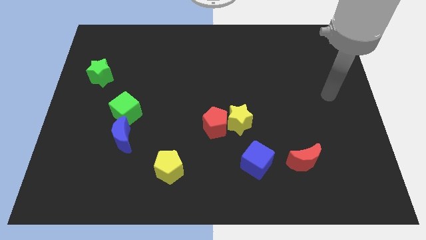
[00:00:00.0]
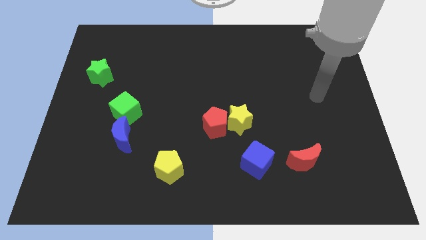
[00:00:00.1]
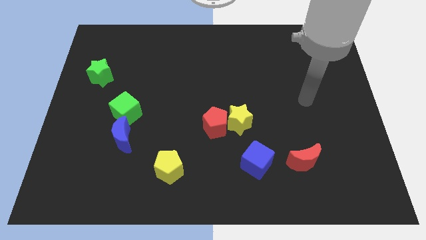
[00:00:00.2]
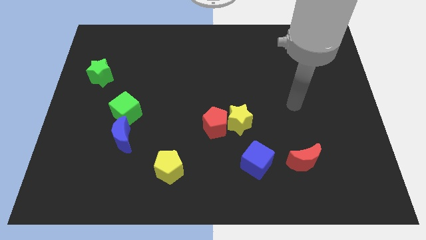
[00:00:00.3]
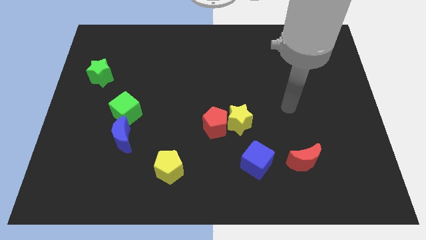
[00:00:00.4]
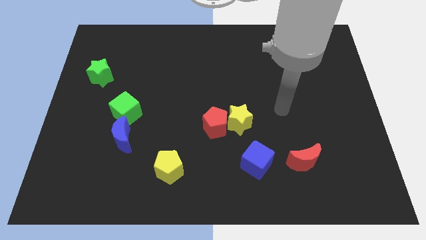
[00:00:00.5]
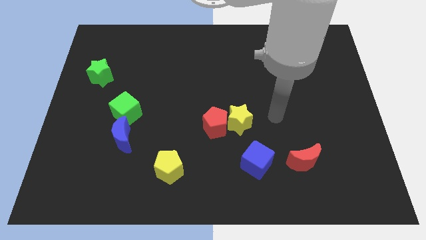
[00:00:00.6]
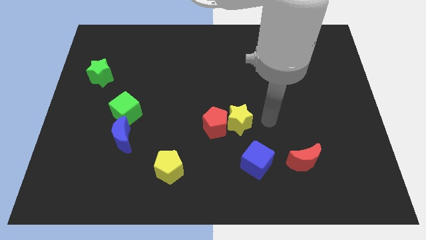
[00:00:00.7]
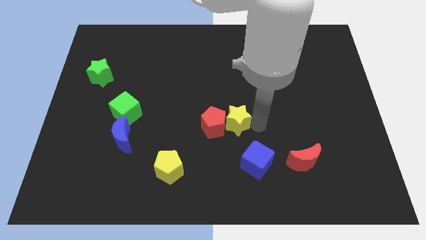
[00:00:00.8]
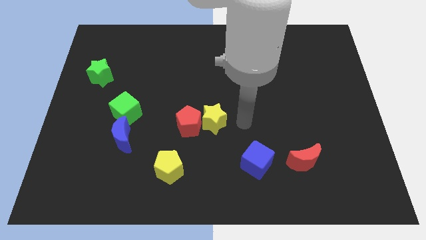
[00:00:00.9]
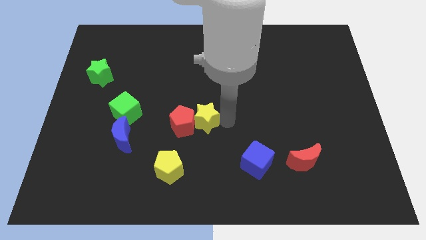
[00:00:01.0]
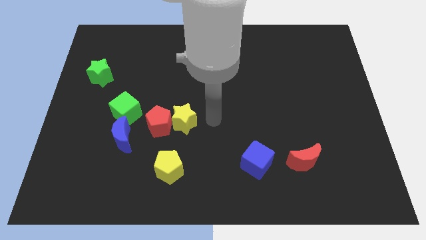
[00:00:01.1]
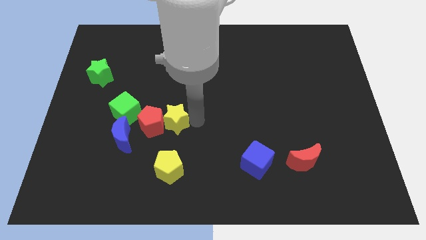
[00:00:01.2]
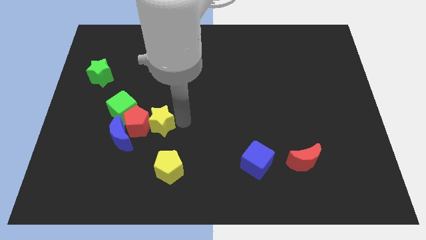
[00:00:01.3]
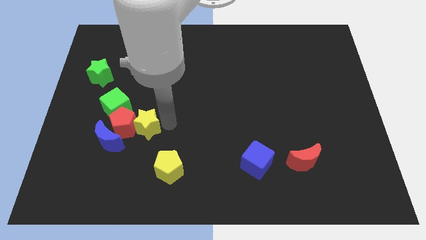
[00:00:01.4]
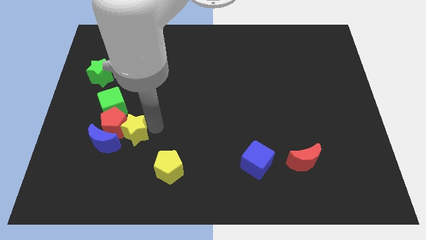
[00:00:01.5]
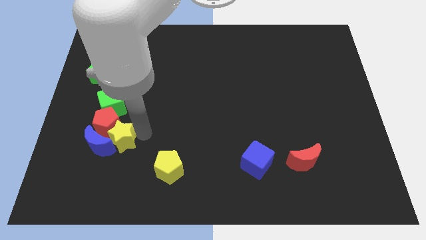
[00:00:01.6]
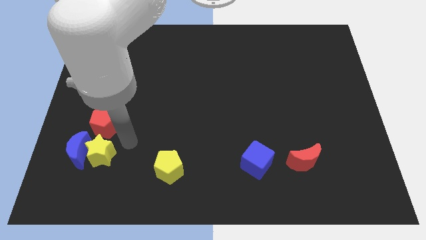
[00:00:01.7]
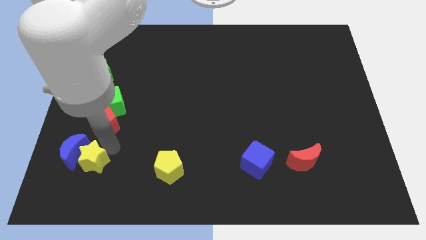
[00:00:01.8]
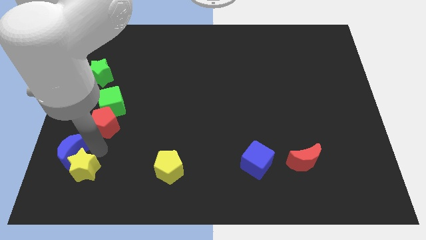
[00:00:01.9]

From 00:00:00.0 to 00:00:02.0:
move the red pentagon away from the yellow star

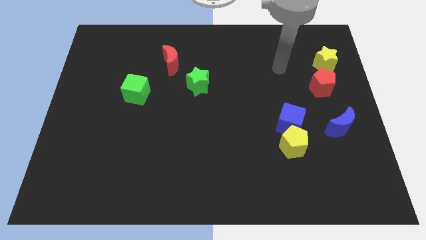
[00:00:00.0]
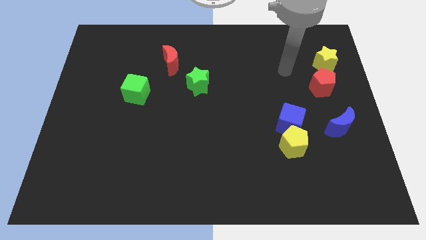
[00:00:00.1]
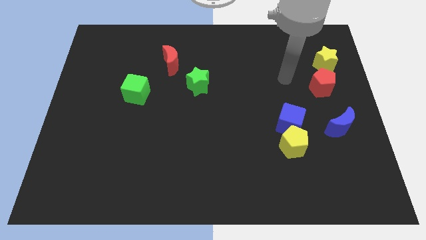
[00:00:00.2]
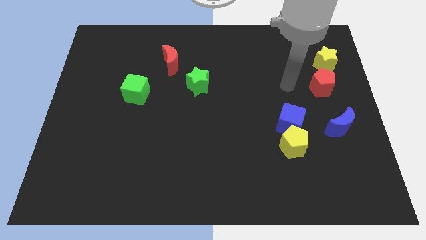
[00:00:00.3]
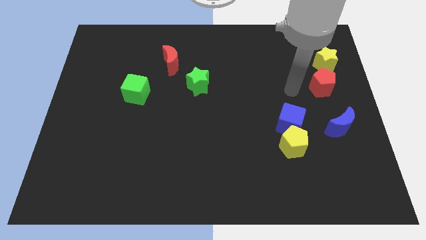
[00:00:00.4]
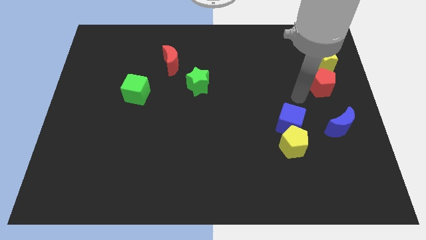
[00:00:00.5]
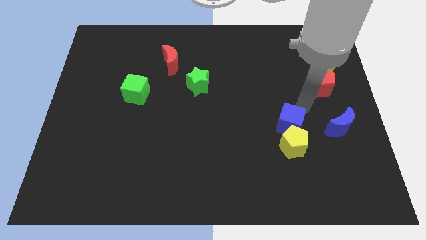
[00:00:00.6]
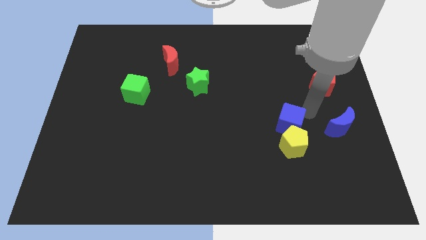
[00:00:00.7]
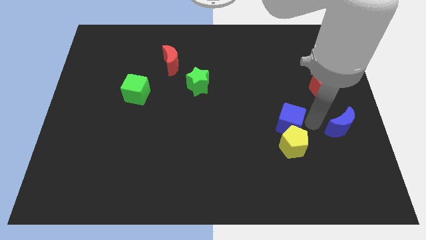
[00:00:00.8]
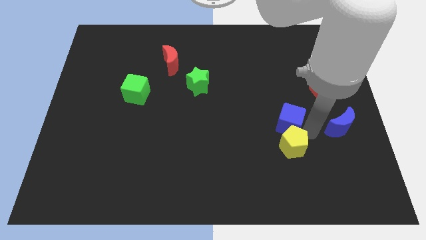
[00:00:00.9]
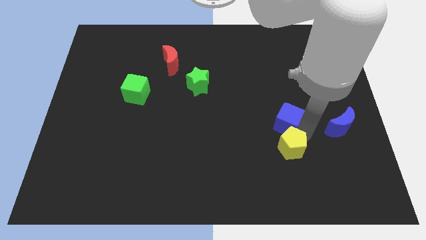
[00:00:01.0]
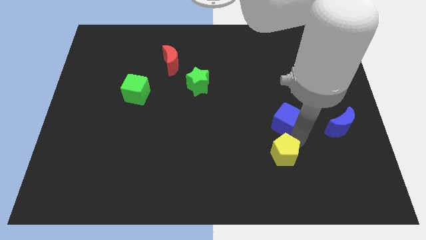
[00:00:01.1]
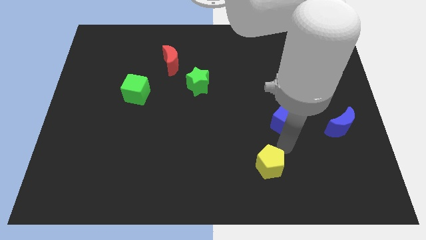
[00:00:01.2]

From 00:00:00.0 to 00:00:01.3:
separate the blue cube from the yellow pentagon

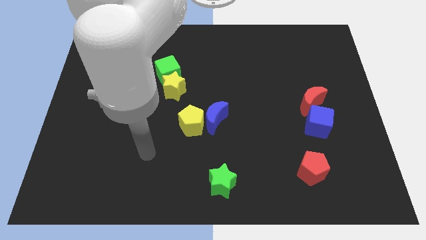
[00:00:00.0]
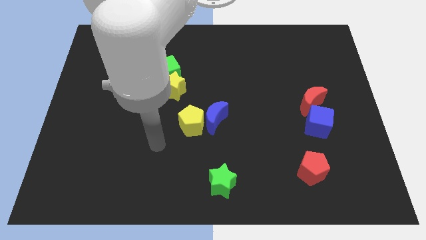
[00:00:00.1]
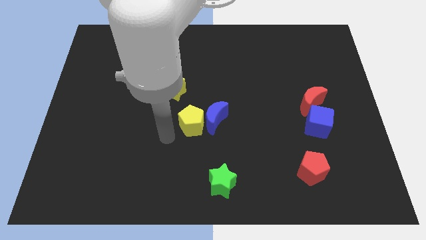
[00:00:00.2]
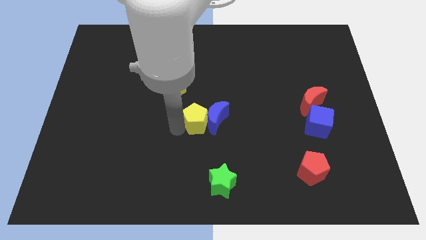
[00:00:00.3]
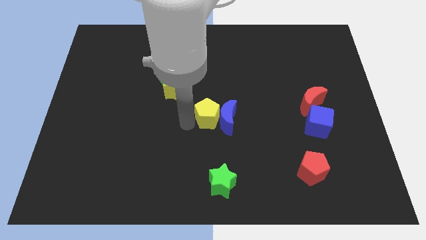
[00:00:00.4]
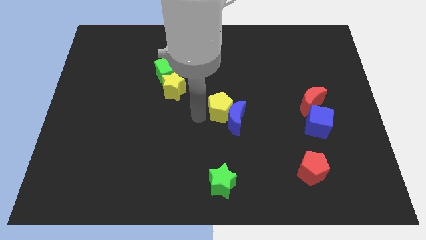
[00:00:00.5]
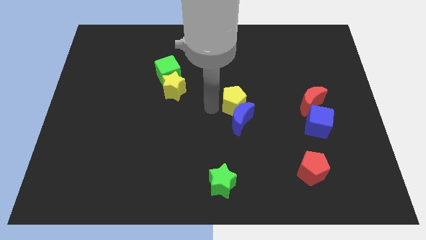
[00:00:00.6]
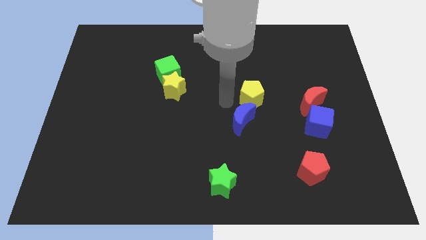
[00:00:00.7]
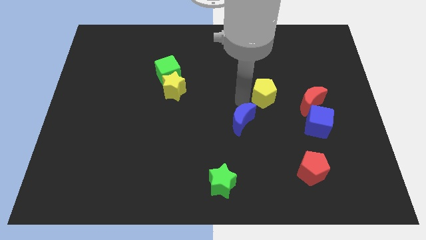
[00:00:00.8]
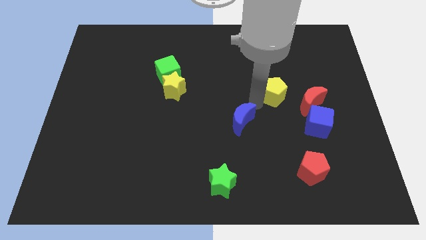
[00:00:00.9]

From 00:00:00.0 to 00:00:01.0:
move the blue moon away from the yellow pentagon

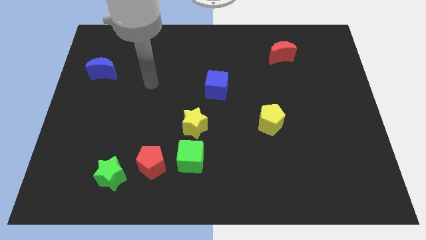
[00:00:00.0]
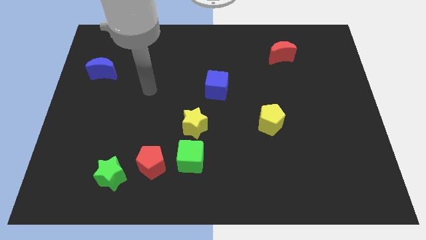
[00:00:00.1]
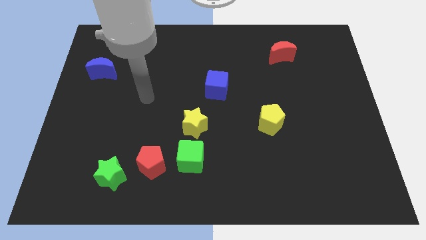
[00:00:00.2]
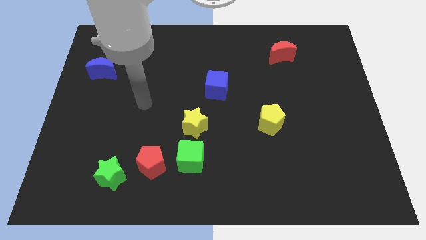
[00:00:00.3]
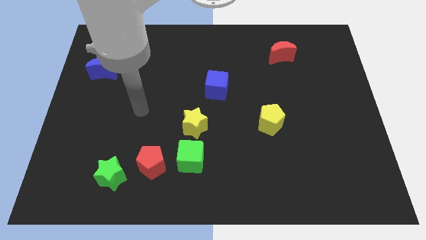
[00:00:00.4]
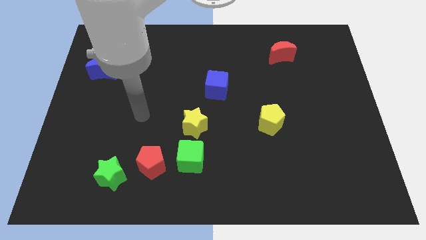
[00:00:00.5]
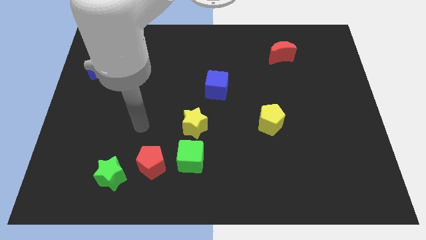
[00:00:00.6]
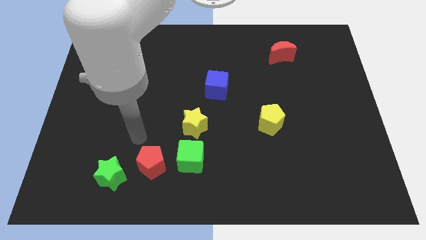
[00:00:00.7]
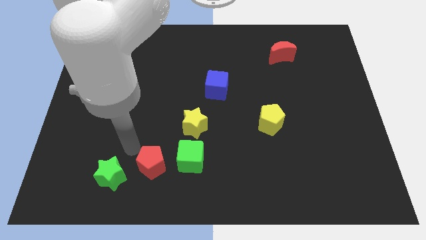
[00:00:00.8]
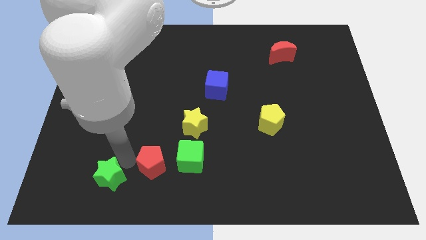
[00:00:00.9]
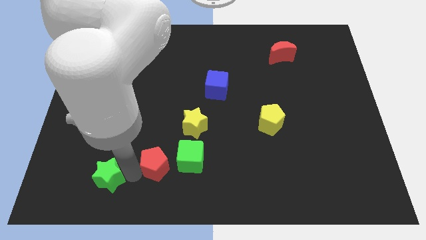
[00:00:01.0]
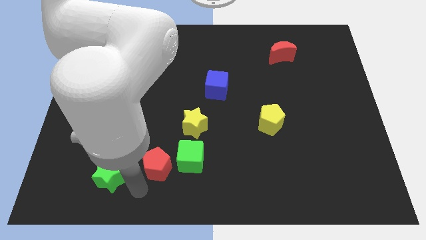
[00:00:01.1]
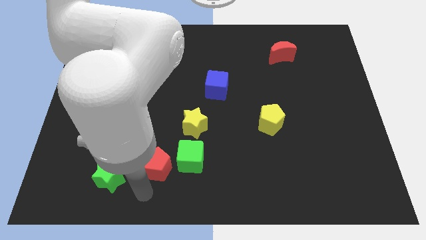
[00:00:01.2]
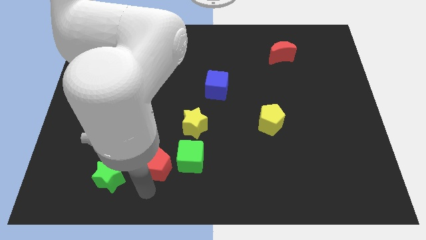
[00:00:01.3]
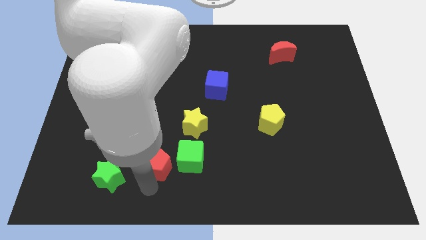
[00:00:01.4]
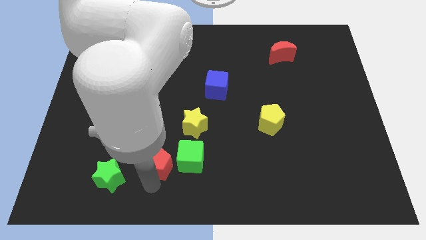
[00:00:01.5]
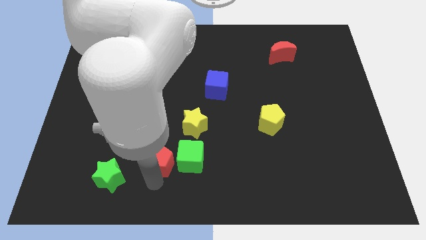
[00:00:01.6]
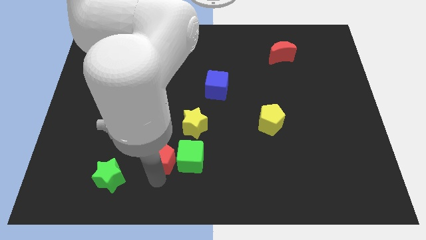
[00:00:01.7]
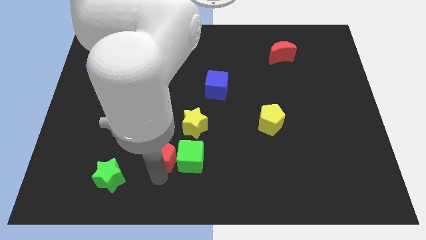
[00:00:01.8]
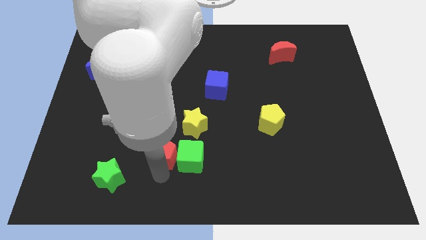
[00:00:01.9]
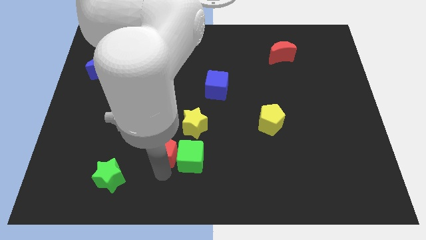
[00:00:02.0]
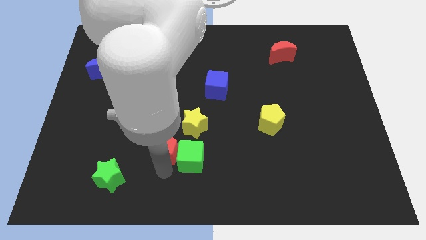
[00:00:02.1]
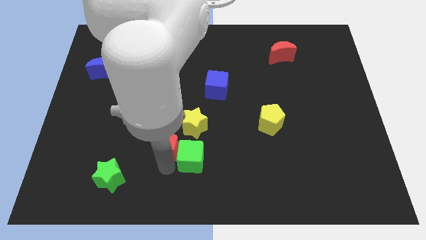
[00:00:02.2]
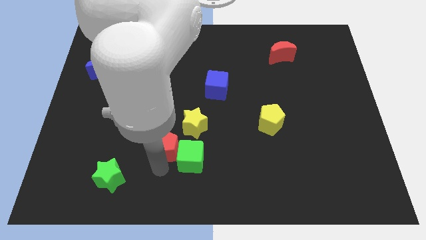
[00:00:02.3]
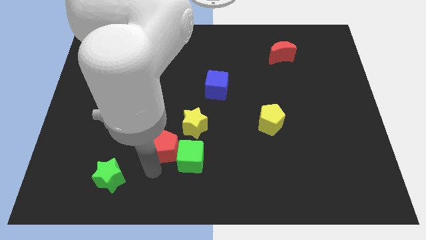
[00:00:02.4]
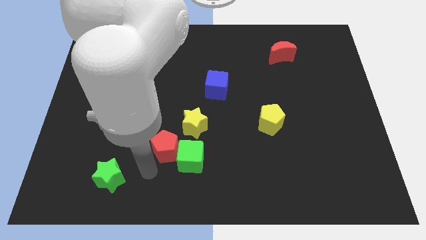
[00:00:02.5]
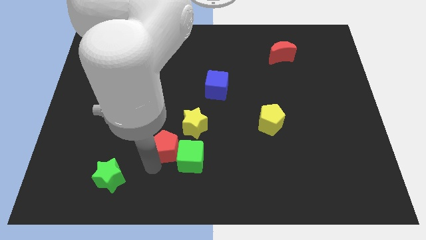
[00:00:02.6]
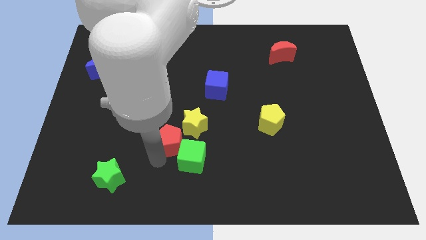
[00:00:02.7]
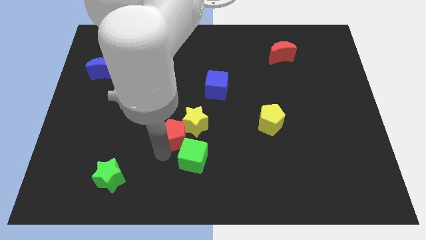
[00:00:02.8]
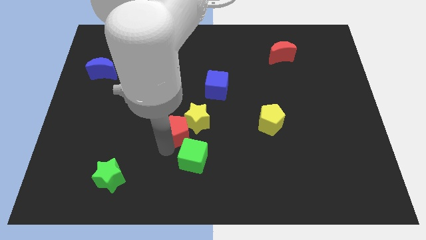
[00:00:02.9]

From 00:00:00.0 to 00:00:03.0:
move the red pentagon away from the green cube and green star

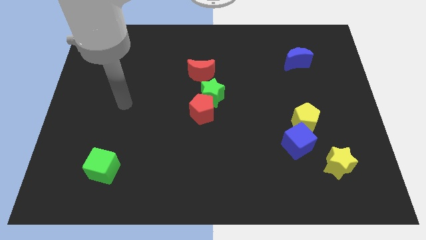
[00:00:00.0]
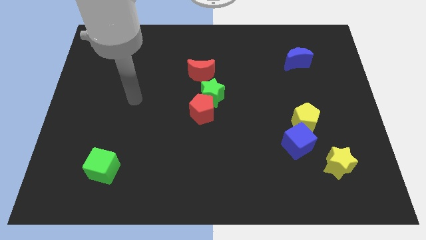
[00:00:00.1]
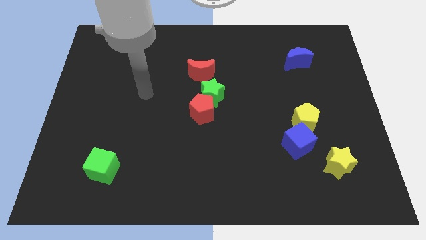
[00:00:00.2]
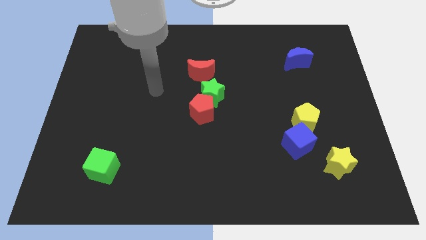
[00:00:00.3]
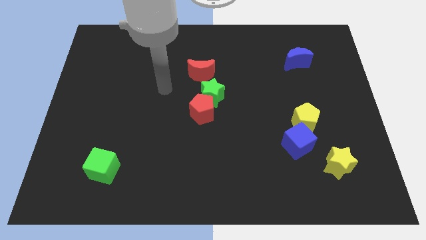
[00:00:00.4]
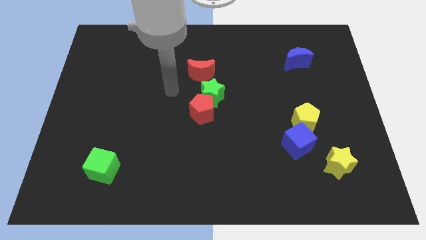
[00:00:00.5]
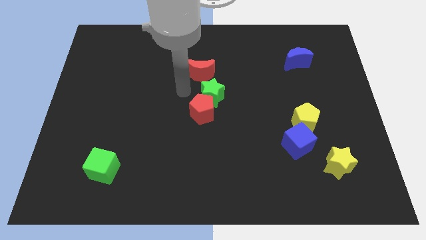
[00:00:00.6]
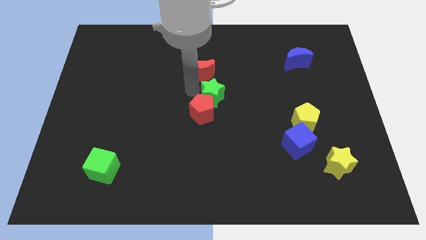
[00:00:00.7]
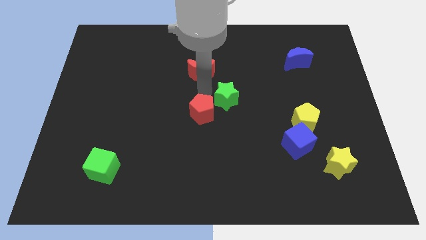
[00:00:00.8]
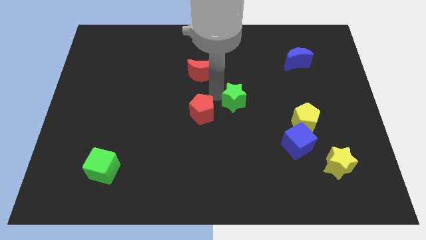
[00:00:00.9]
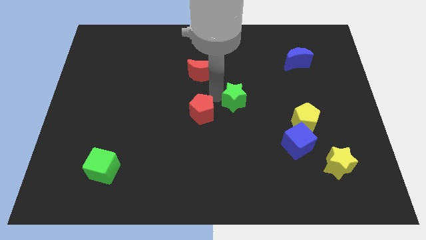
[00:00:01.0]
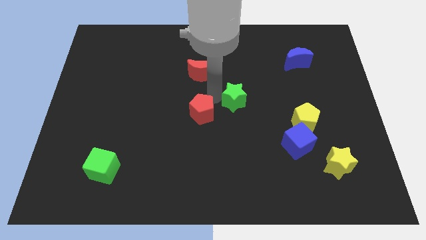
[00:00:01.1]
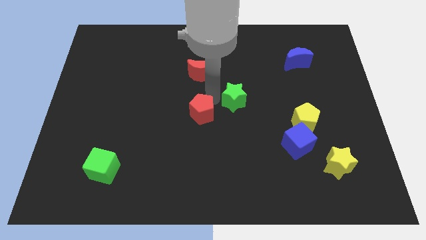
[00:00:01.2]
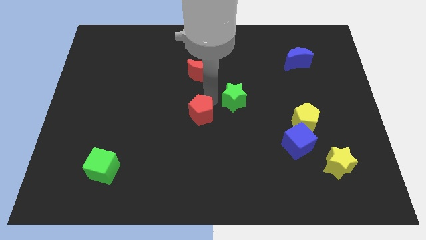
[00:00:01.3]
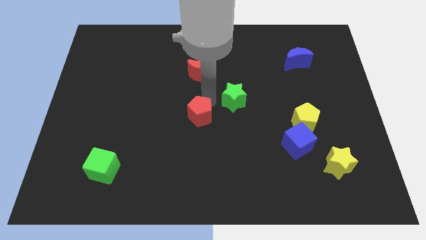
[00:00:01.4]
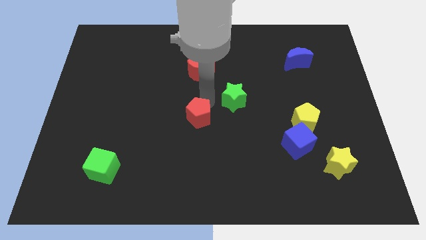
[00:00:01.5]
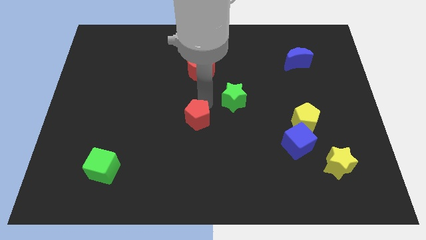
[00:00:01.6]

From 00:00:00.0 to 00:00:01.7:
move the red pentagon away from the green star

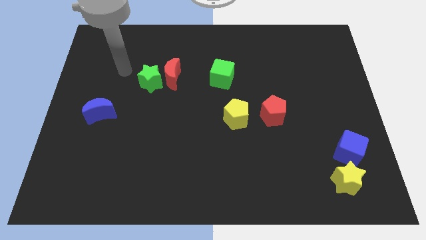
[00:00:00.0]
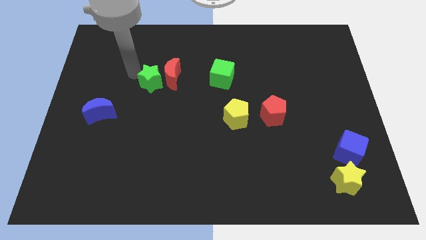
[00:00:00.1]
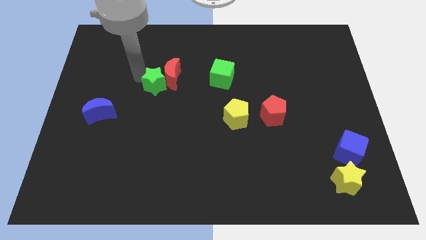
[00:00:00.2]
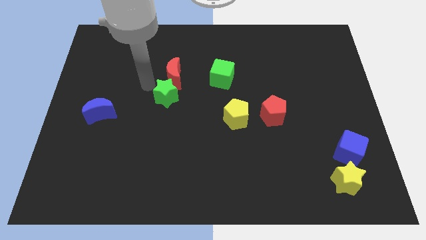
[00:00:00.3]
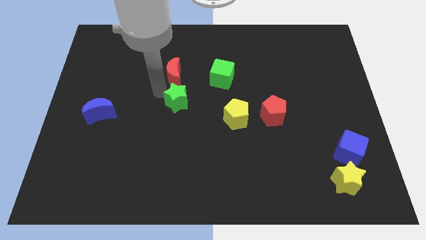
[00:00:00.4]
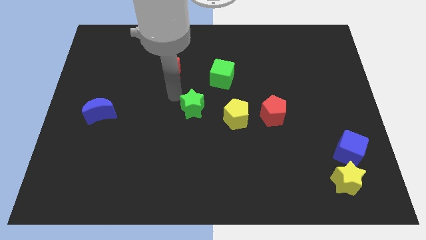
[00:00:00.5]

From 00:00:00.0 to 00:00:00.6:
separate the red moon from the green star
